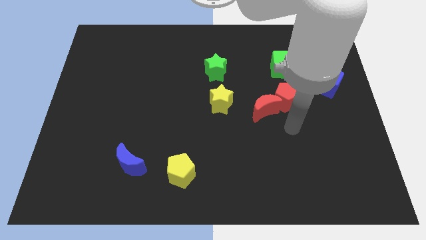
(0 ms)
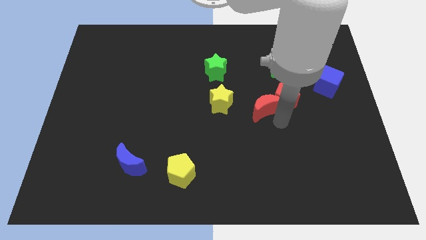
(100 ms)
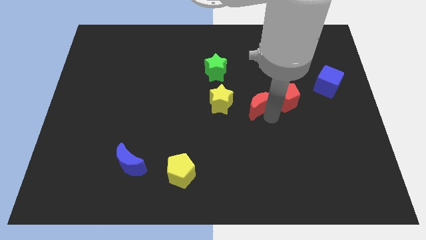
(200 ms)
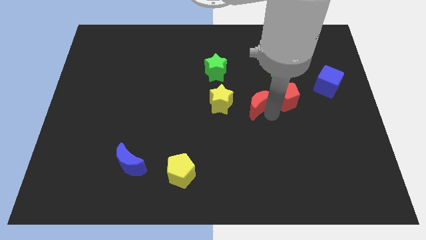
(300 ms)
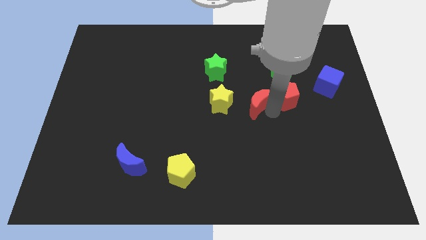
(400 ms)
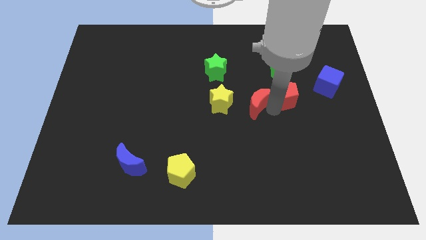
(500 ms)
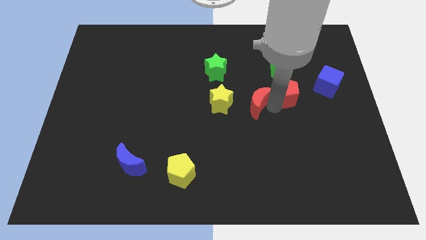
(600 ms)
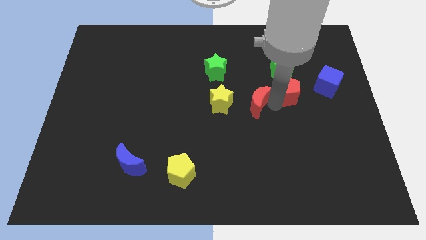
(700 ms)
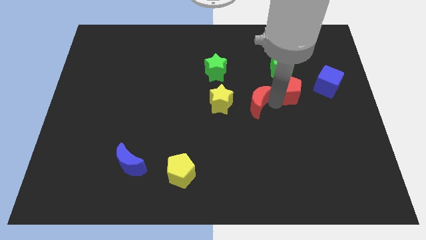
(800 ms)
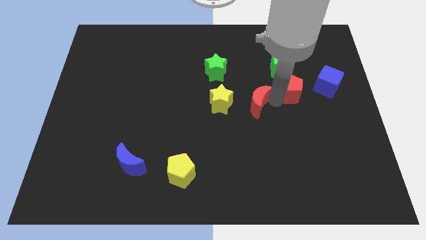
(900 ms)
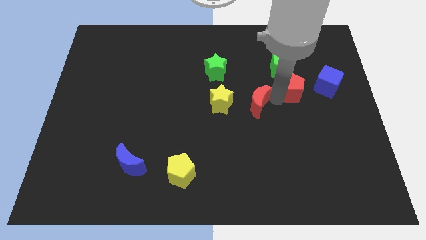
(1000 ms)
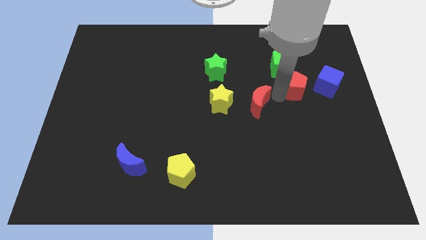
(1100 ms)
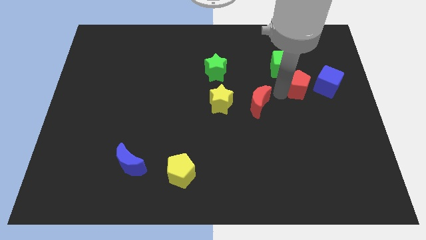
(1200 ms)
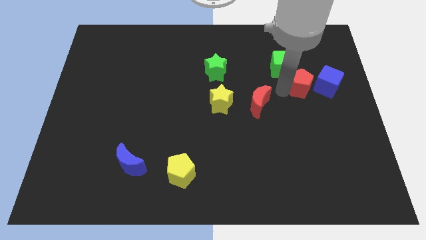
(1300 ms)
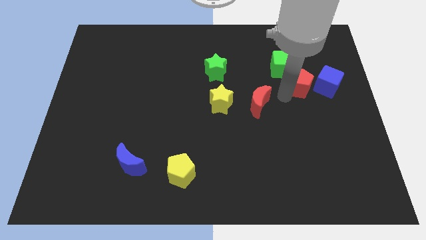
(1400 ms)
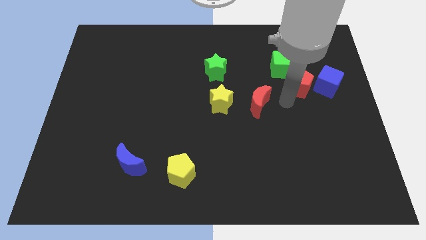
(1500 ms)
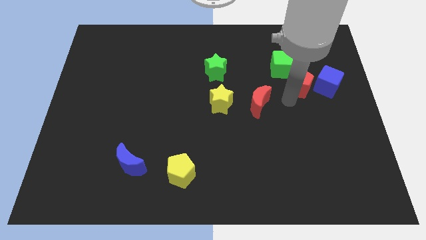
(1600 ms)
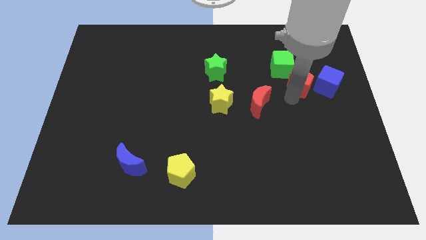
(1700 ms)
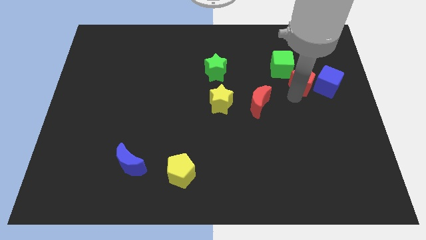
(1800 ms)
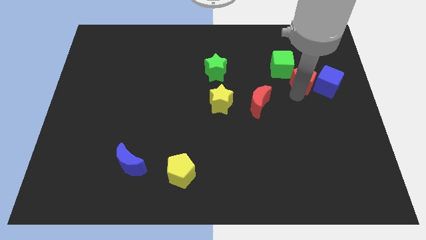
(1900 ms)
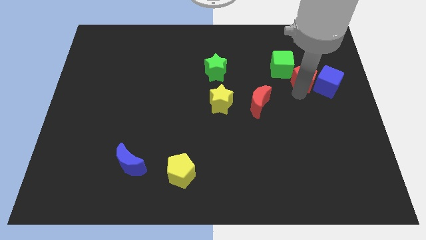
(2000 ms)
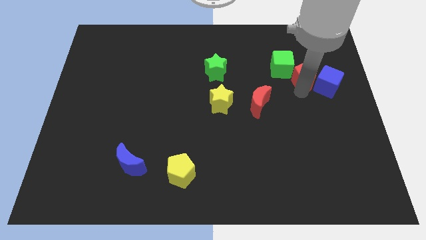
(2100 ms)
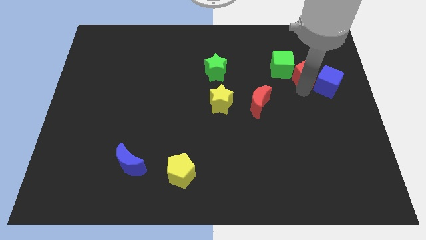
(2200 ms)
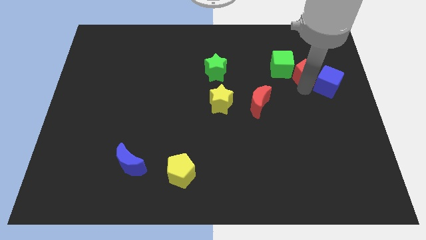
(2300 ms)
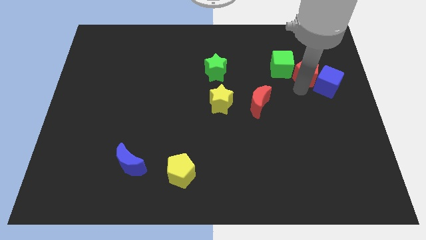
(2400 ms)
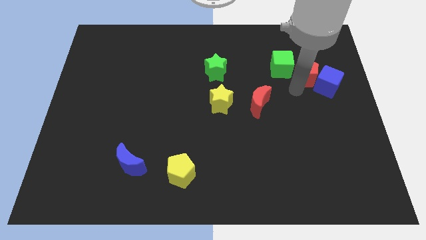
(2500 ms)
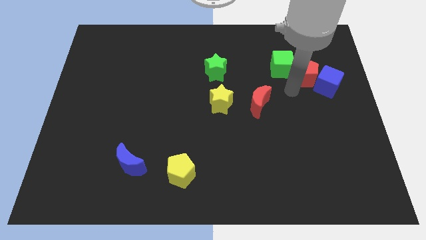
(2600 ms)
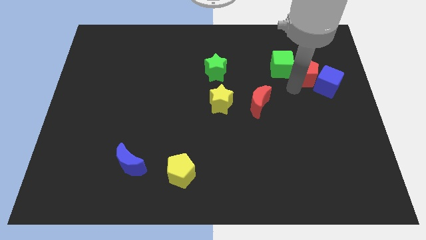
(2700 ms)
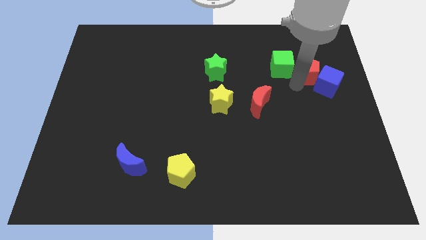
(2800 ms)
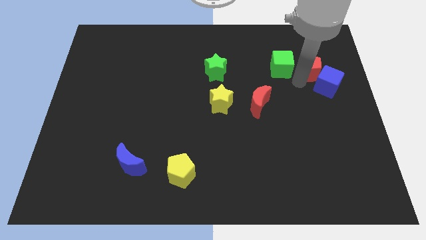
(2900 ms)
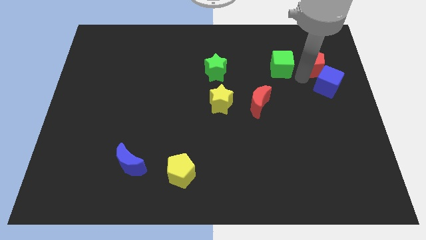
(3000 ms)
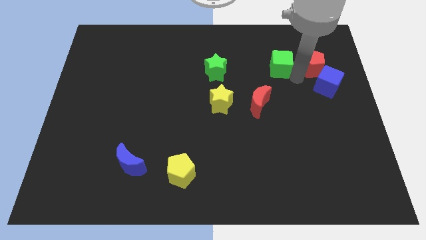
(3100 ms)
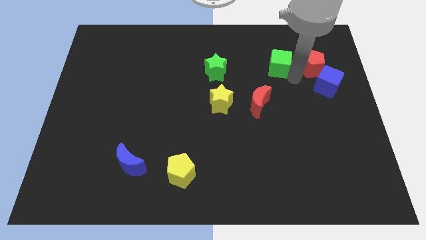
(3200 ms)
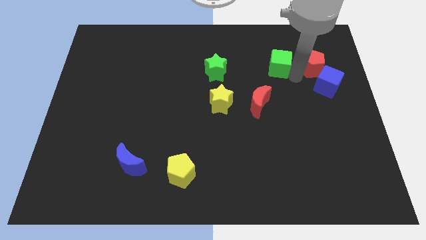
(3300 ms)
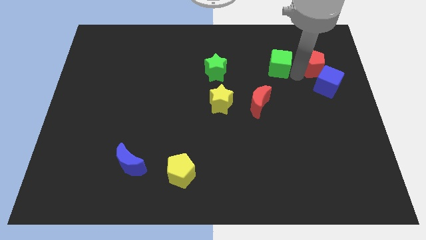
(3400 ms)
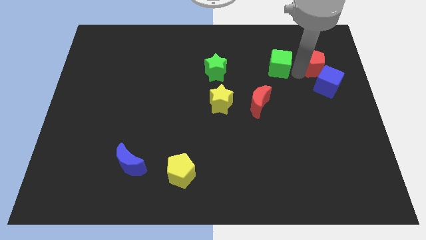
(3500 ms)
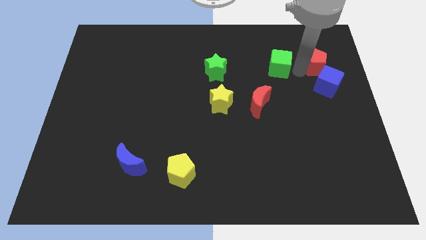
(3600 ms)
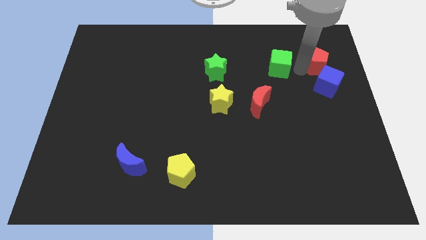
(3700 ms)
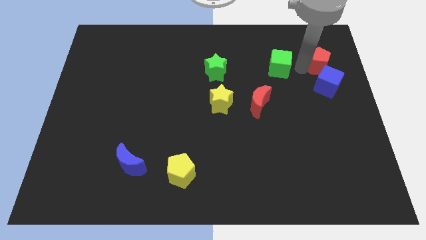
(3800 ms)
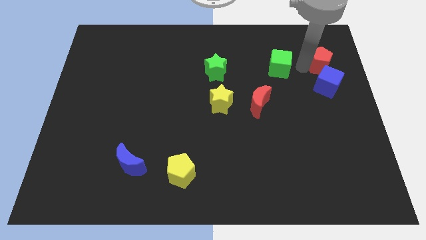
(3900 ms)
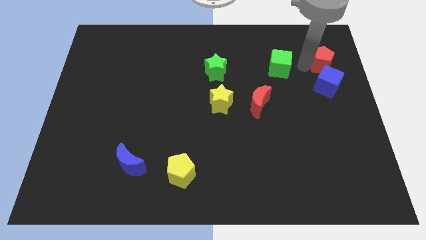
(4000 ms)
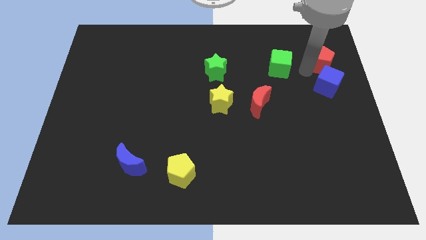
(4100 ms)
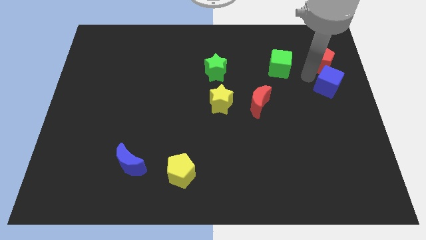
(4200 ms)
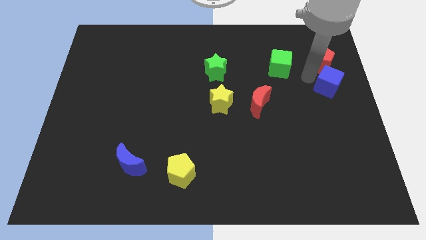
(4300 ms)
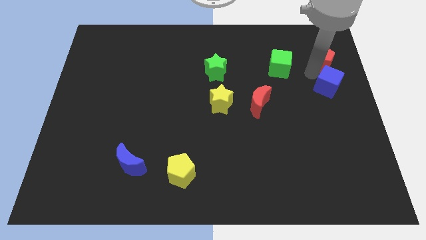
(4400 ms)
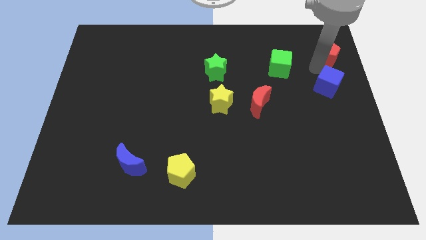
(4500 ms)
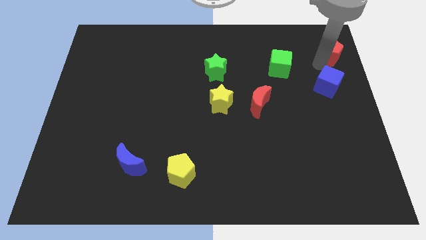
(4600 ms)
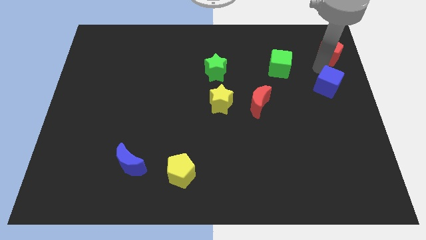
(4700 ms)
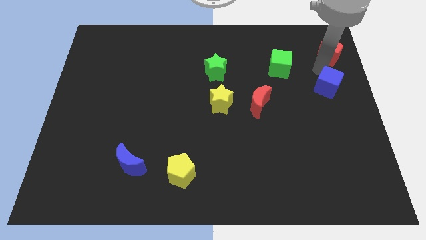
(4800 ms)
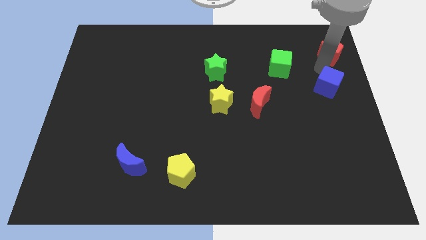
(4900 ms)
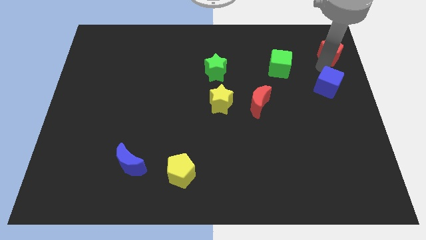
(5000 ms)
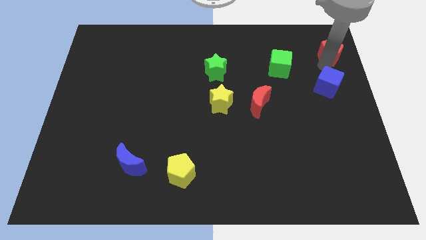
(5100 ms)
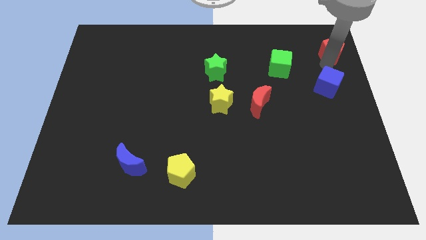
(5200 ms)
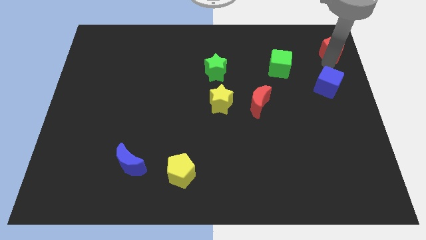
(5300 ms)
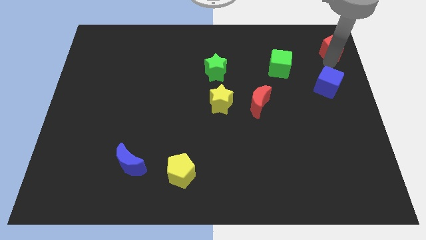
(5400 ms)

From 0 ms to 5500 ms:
slide the red pentagon to the top right of the board
